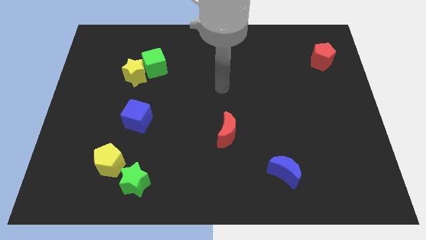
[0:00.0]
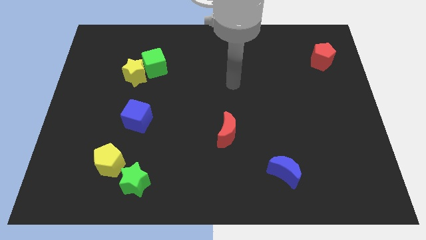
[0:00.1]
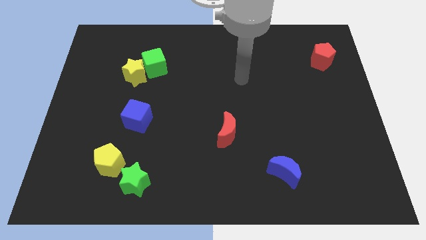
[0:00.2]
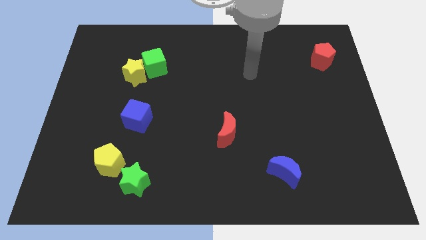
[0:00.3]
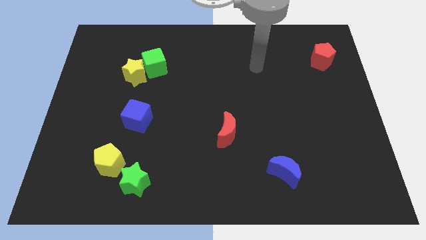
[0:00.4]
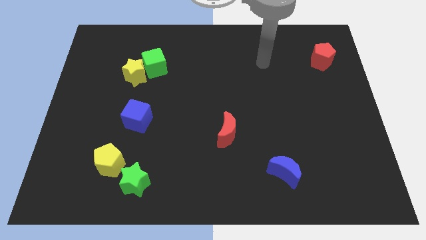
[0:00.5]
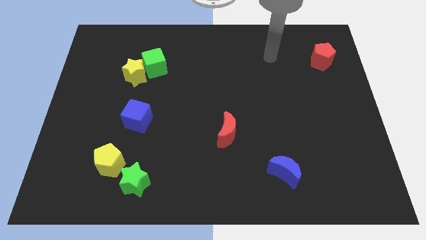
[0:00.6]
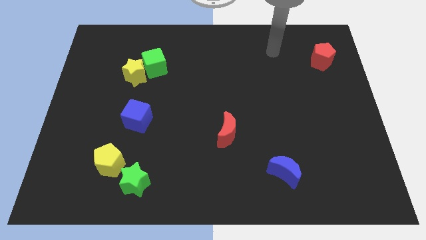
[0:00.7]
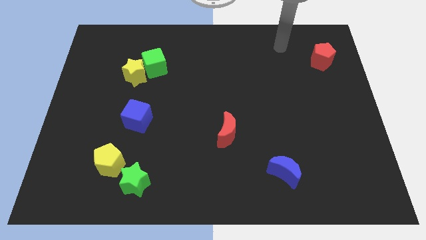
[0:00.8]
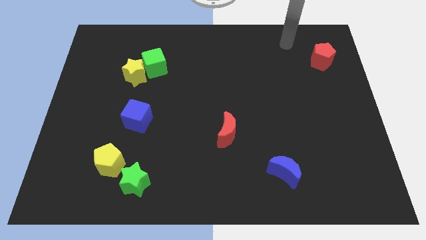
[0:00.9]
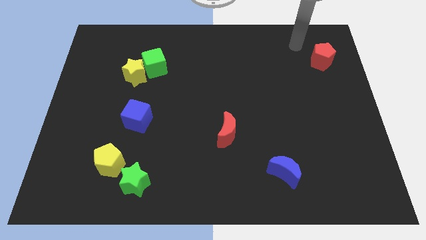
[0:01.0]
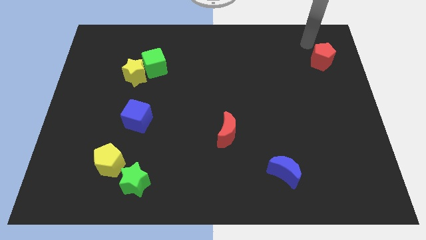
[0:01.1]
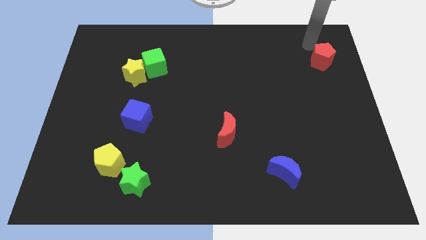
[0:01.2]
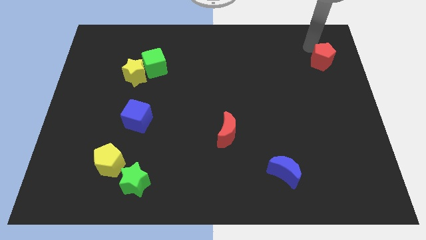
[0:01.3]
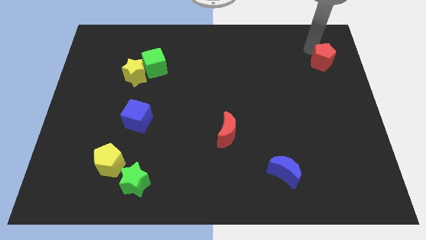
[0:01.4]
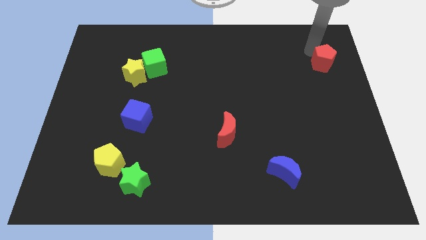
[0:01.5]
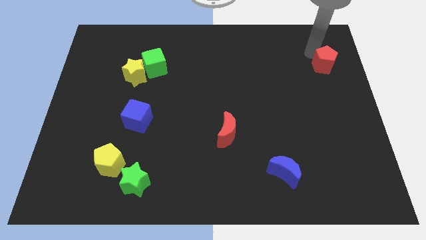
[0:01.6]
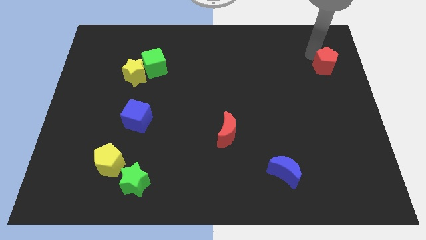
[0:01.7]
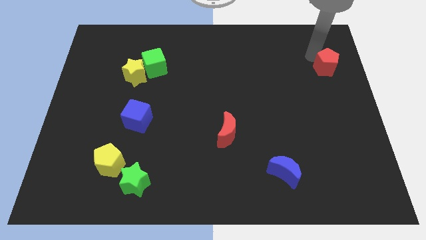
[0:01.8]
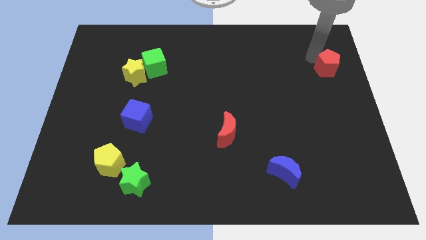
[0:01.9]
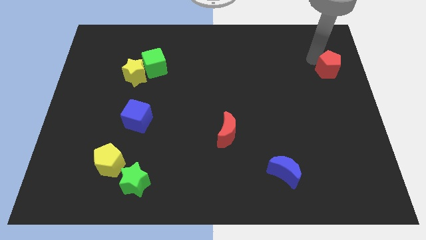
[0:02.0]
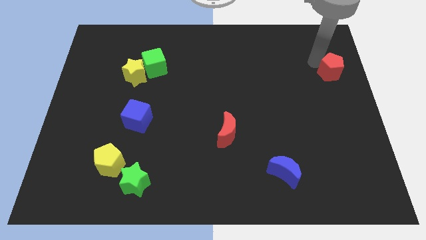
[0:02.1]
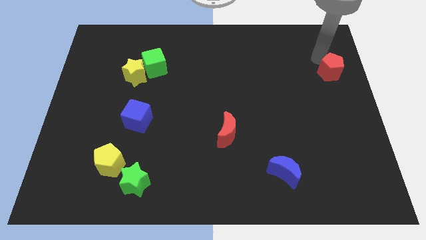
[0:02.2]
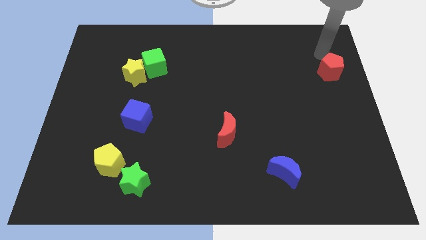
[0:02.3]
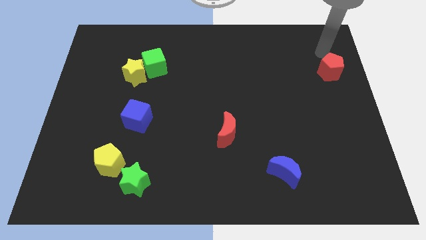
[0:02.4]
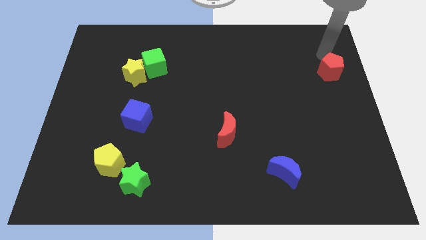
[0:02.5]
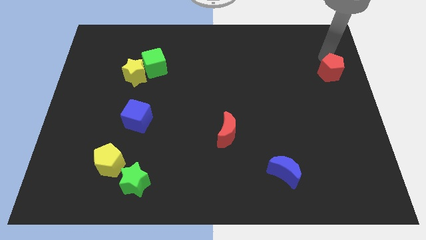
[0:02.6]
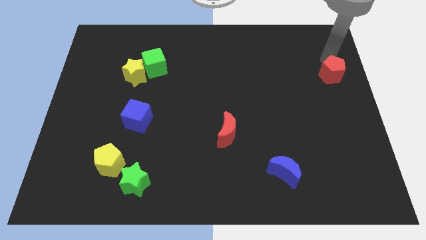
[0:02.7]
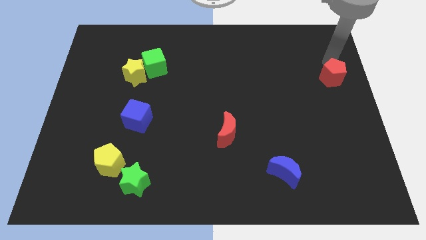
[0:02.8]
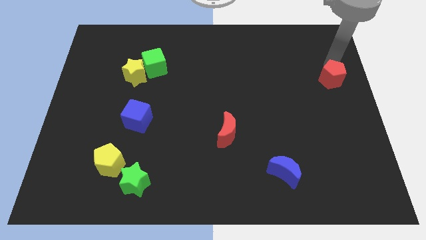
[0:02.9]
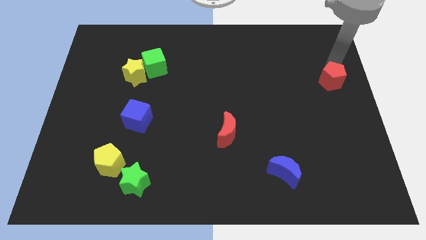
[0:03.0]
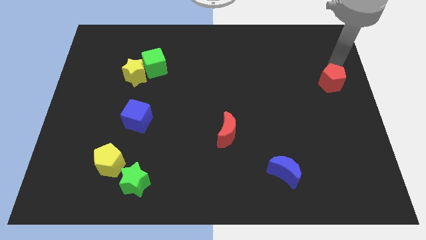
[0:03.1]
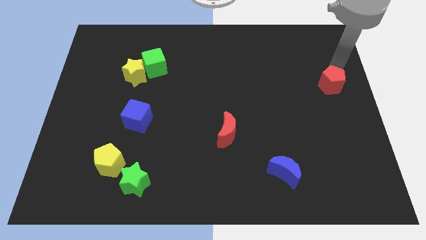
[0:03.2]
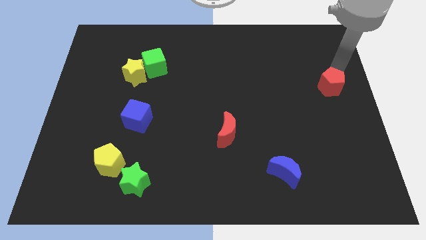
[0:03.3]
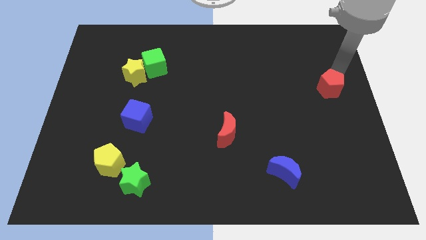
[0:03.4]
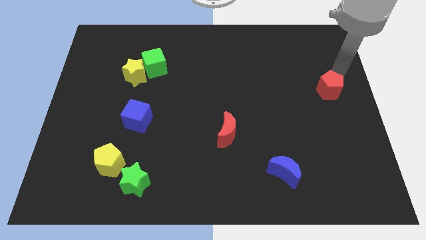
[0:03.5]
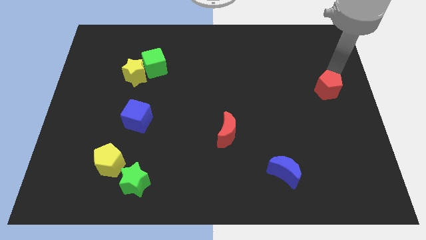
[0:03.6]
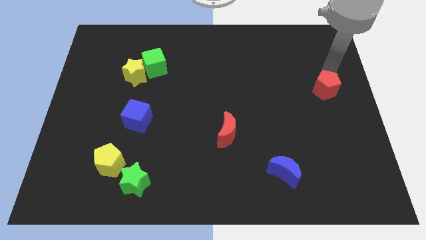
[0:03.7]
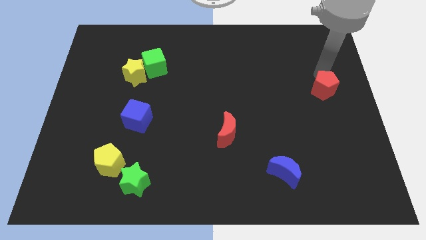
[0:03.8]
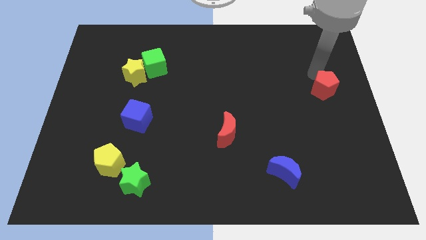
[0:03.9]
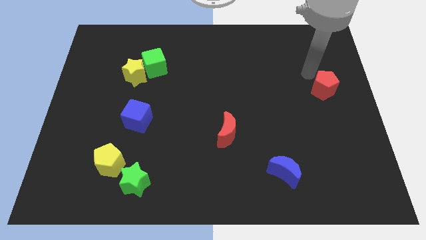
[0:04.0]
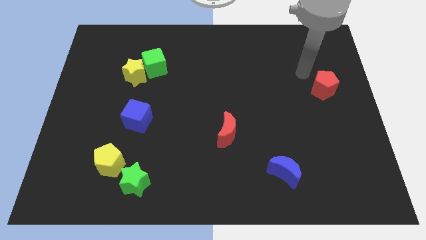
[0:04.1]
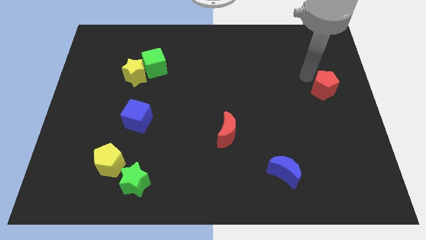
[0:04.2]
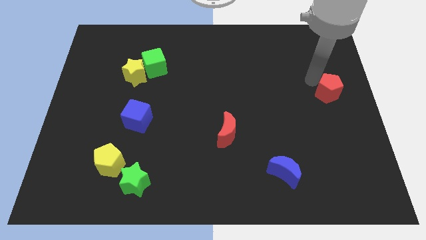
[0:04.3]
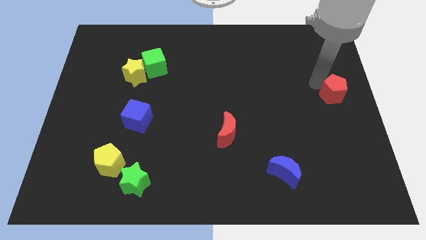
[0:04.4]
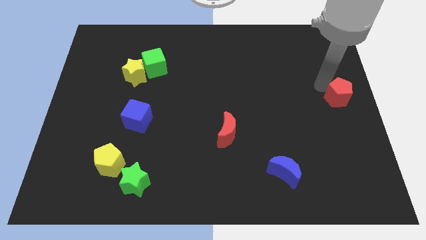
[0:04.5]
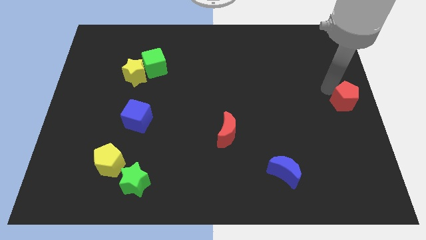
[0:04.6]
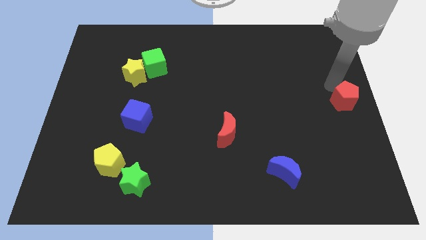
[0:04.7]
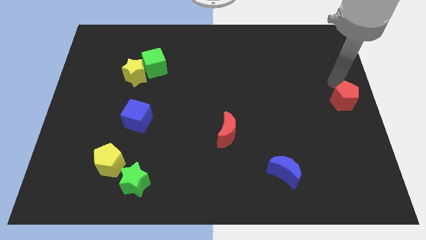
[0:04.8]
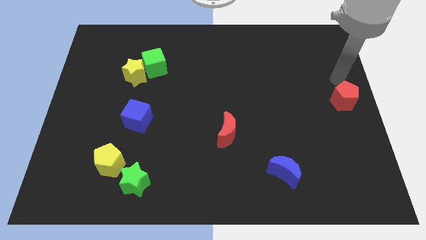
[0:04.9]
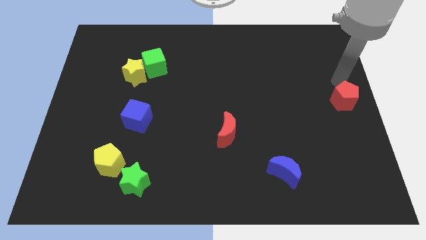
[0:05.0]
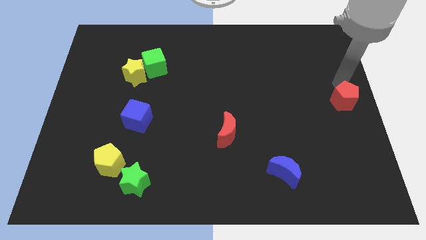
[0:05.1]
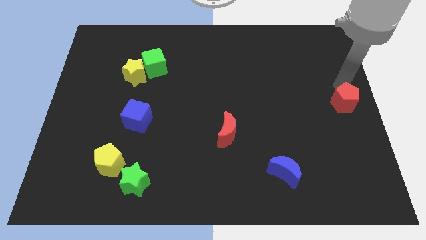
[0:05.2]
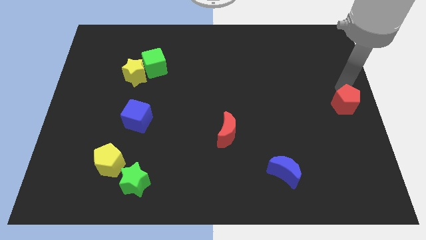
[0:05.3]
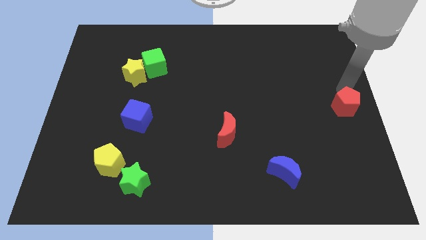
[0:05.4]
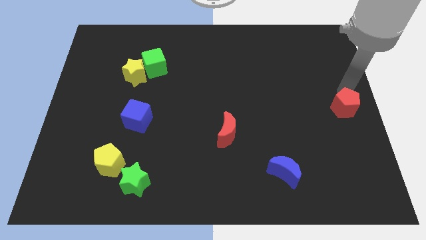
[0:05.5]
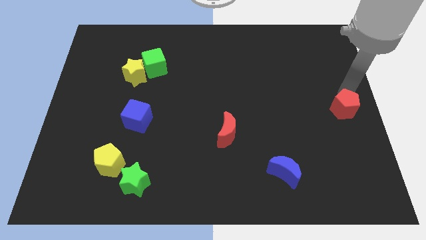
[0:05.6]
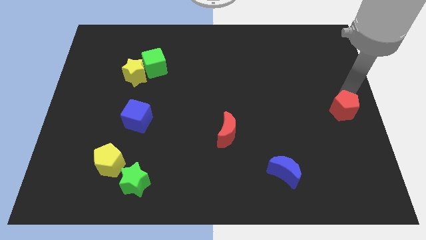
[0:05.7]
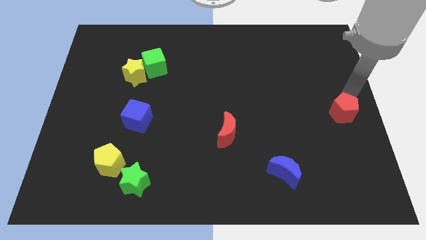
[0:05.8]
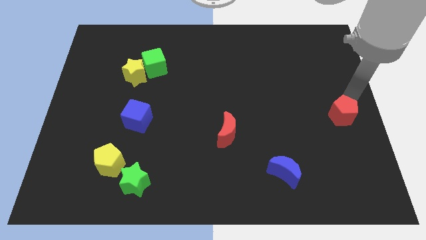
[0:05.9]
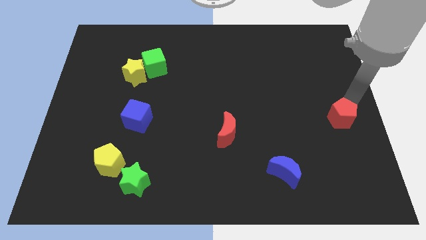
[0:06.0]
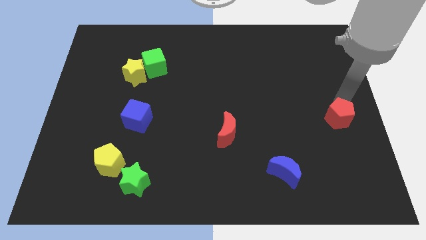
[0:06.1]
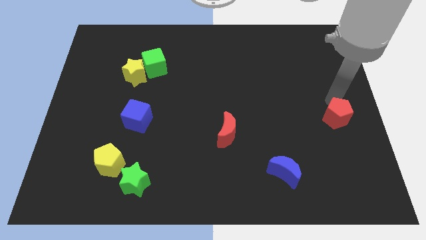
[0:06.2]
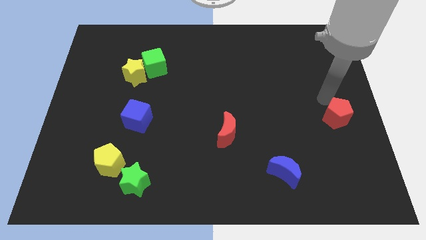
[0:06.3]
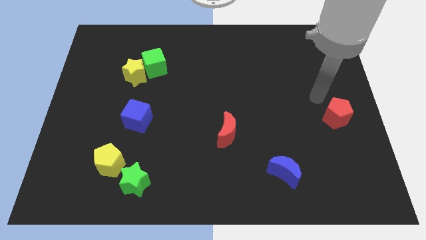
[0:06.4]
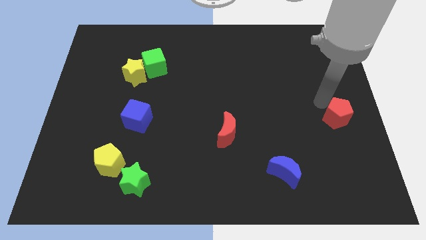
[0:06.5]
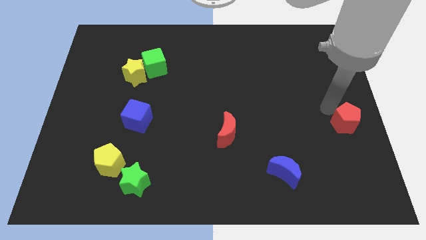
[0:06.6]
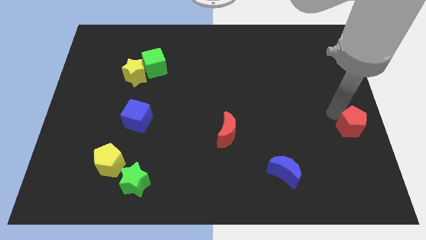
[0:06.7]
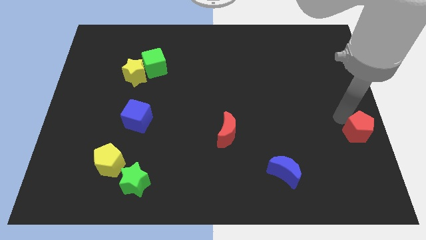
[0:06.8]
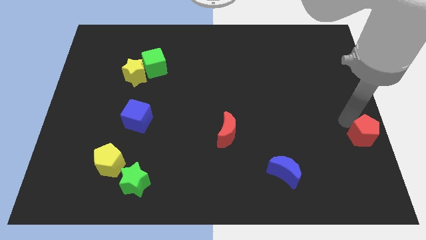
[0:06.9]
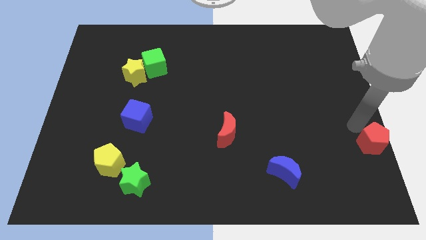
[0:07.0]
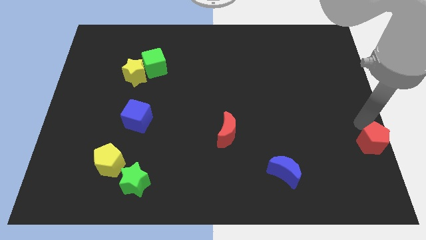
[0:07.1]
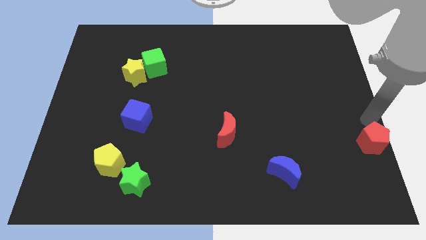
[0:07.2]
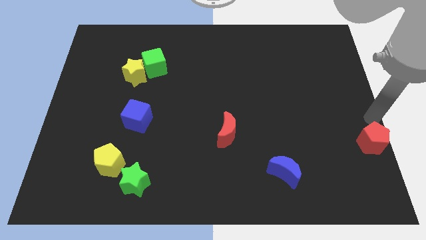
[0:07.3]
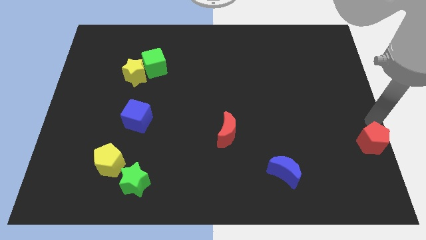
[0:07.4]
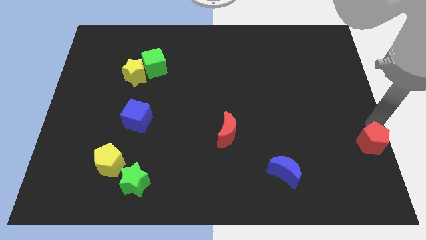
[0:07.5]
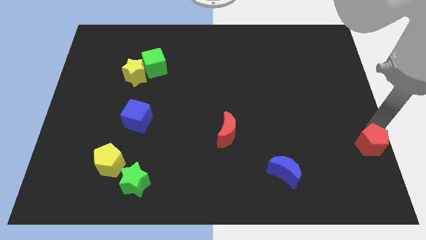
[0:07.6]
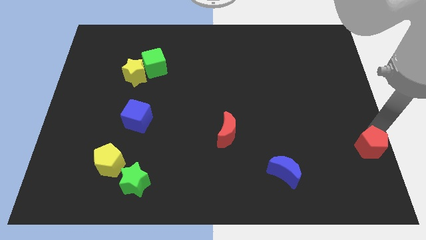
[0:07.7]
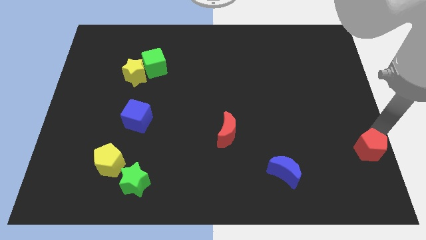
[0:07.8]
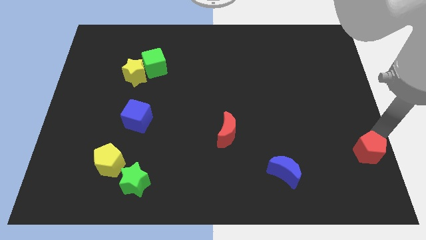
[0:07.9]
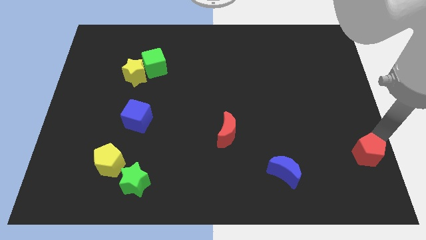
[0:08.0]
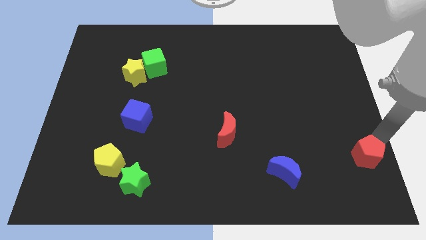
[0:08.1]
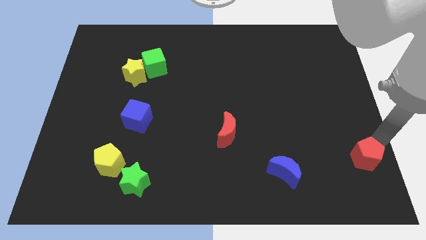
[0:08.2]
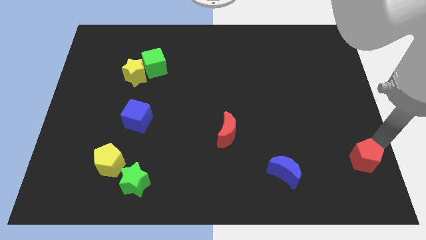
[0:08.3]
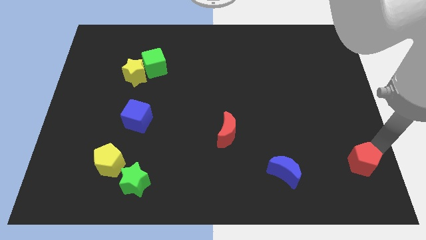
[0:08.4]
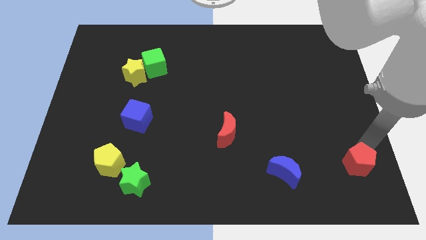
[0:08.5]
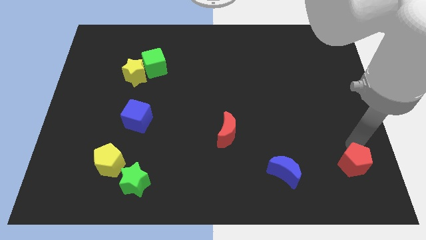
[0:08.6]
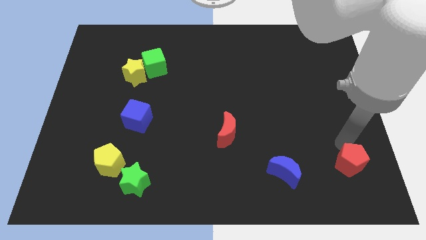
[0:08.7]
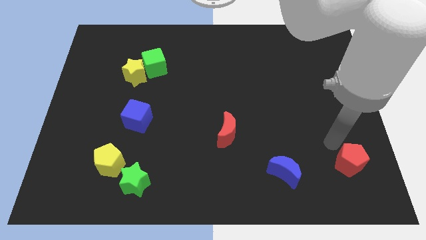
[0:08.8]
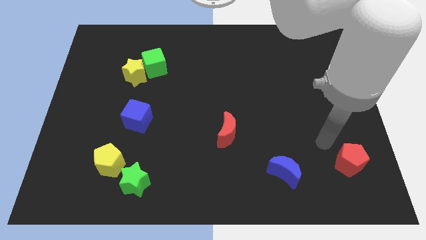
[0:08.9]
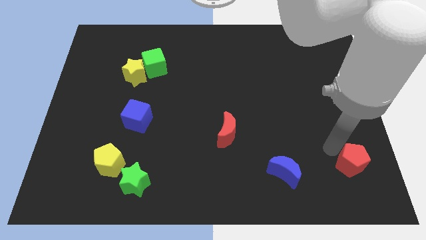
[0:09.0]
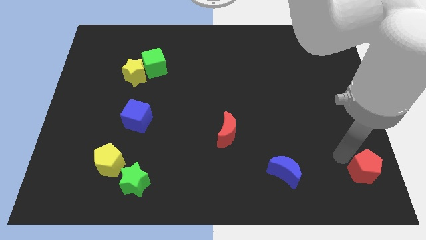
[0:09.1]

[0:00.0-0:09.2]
put the red pentagon to the bottom right of the board
